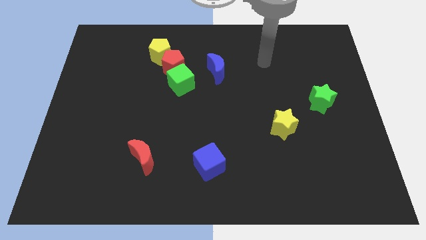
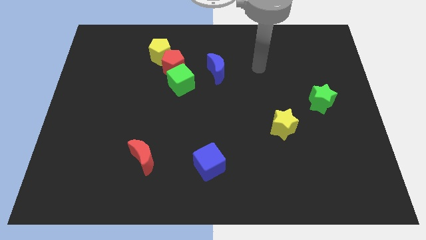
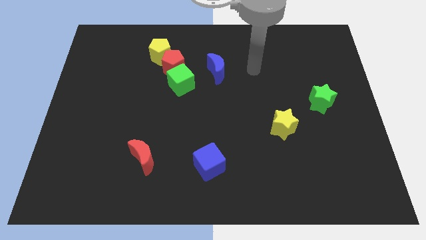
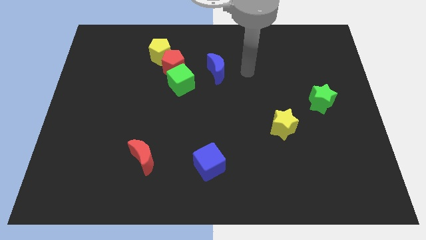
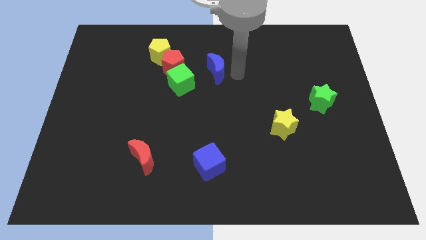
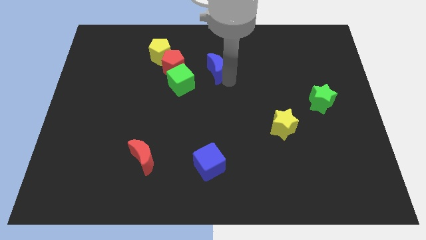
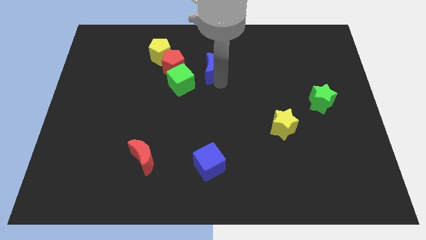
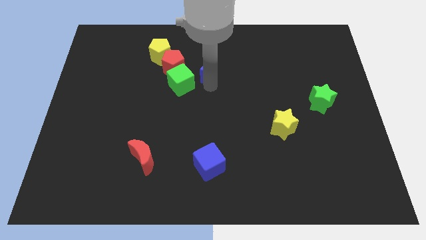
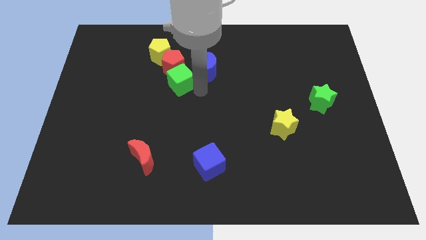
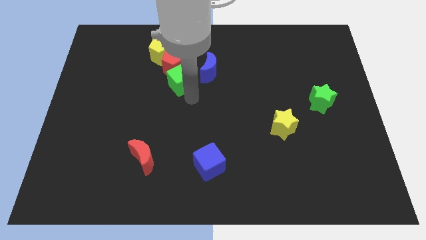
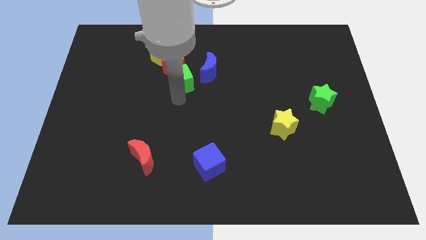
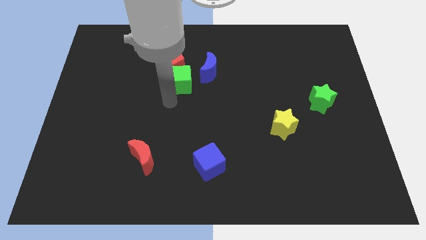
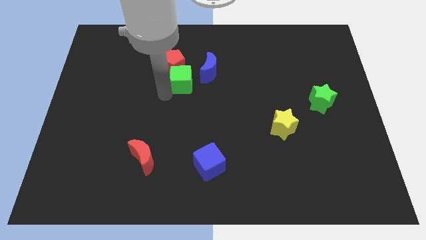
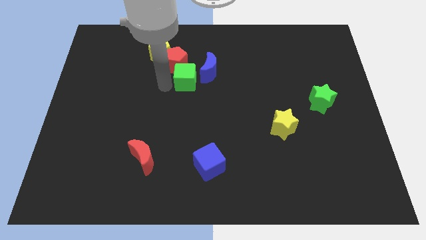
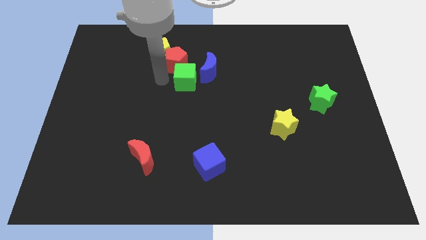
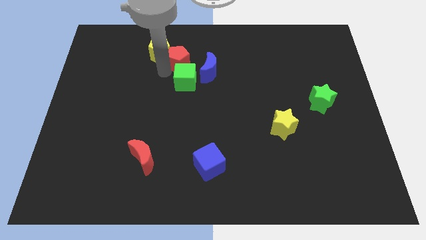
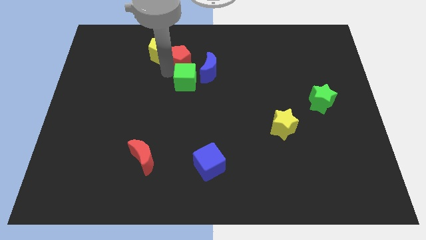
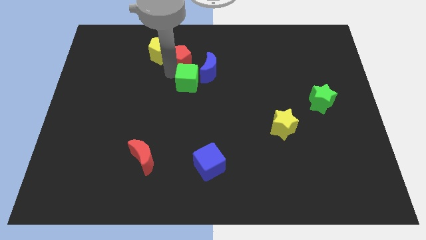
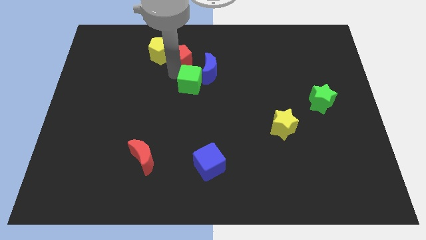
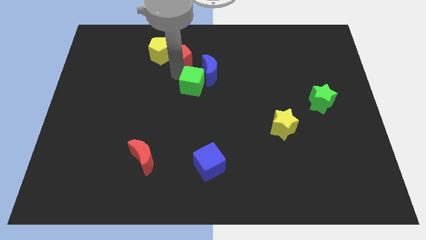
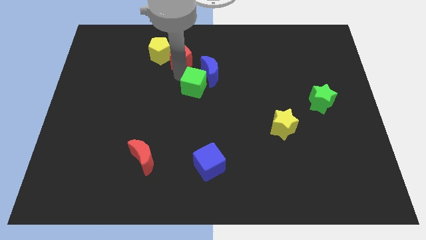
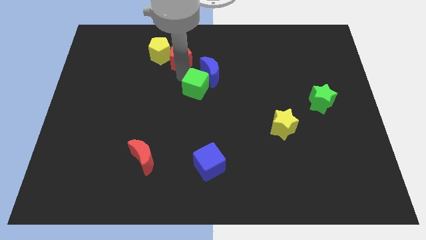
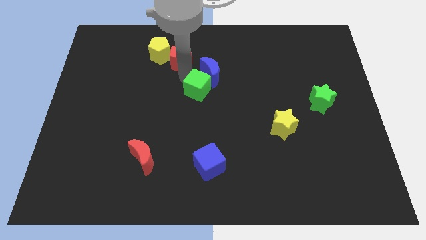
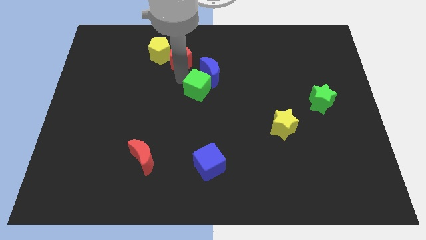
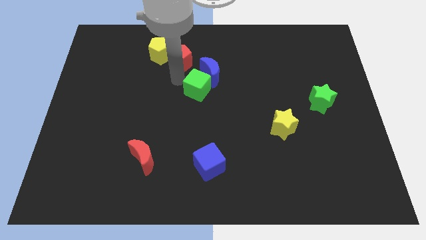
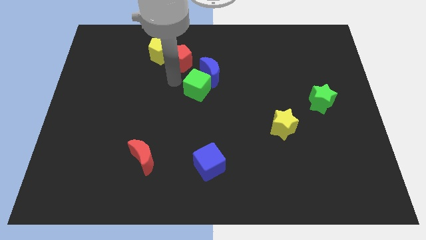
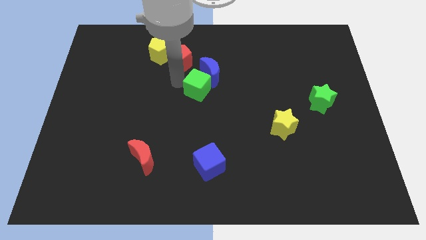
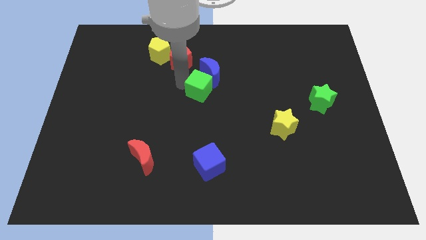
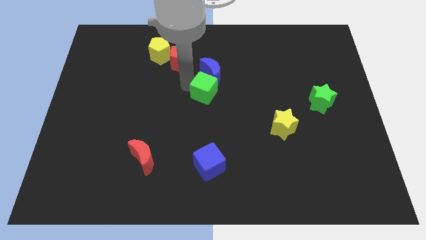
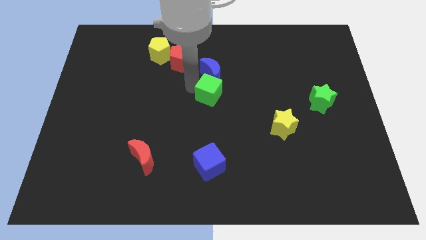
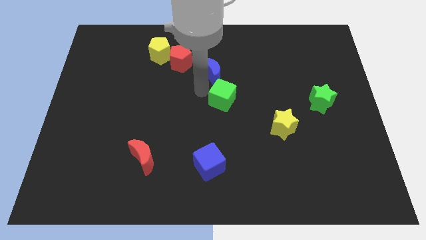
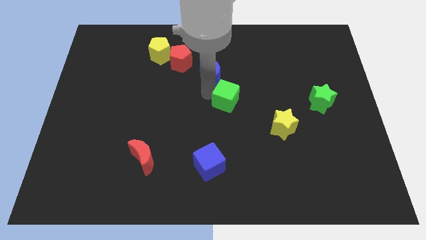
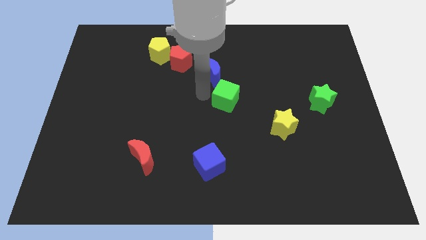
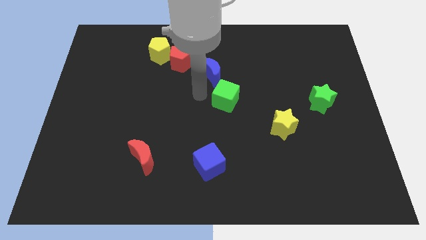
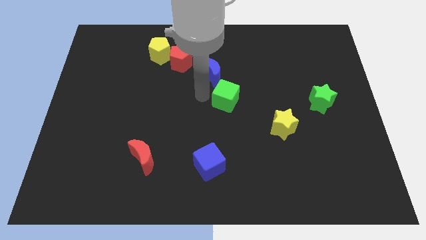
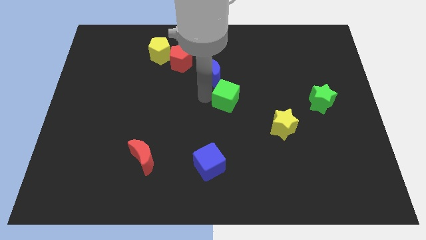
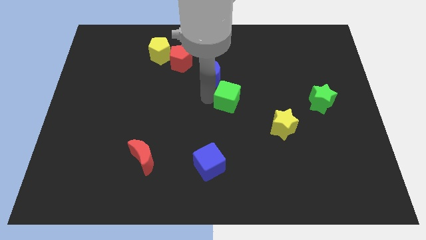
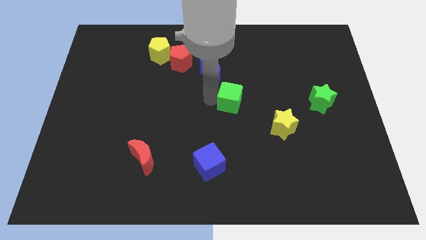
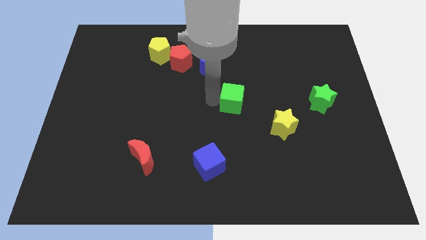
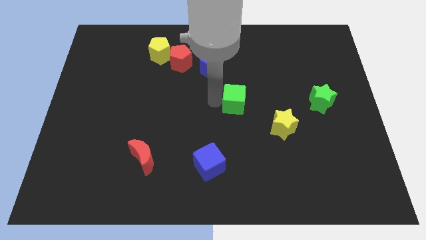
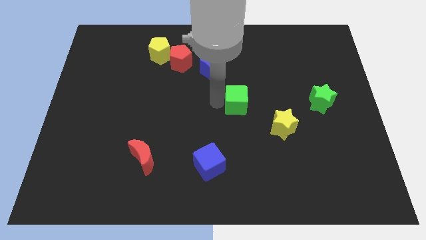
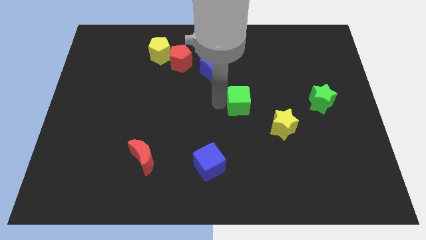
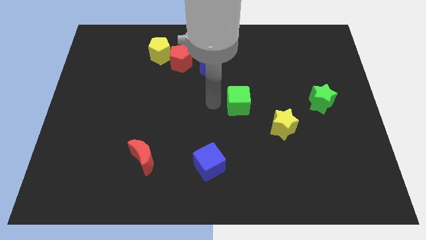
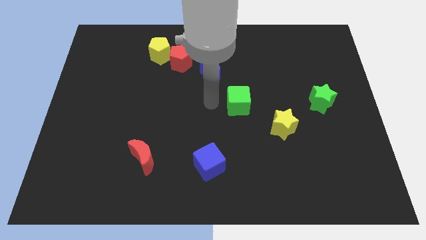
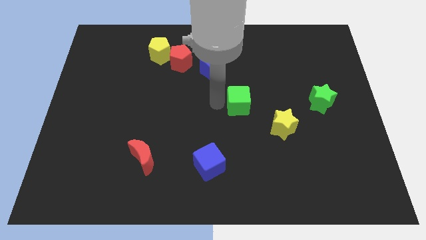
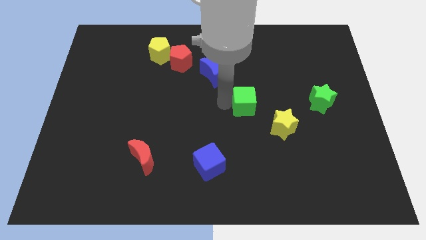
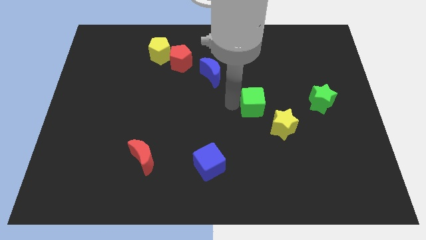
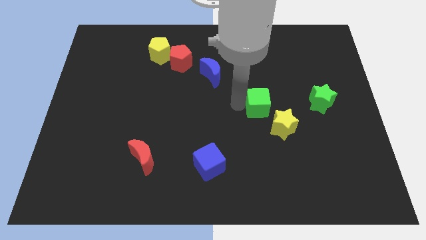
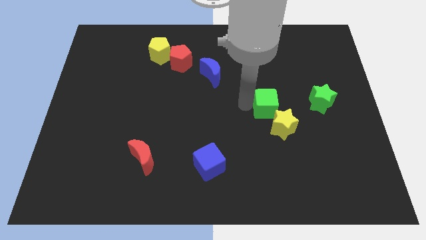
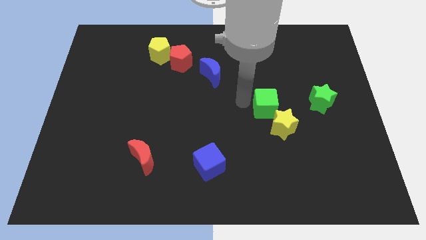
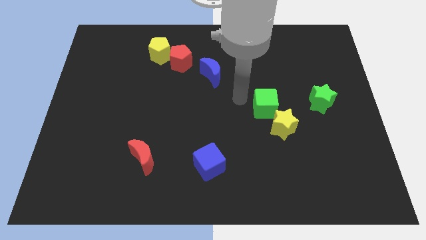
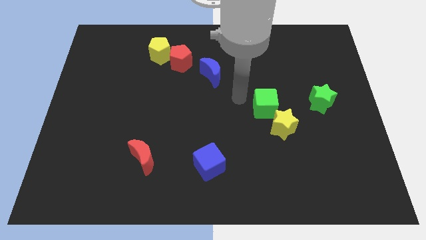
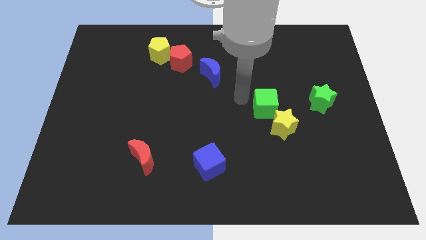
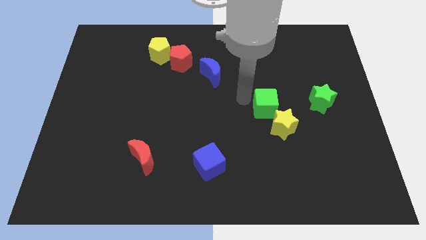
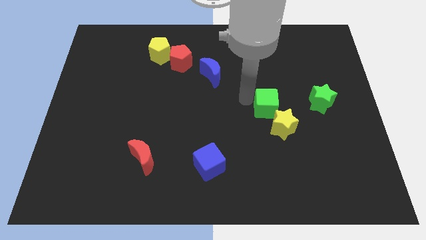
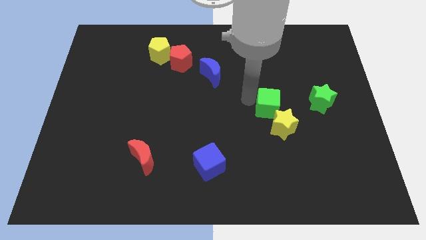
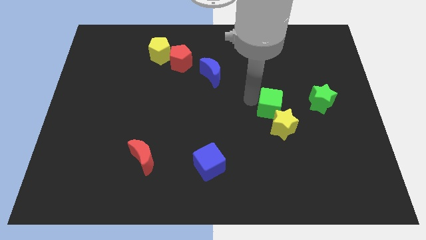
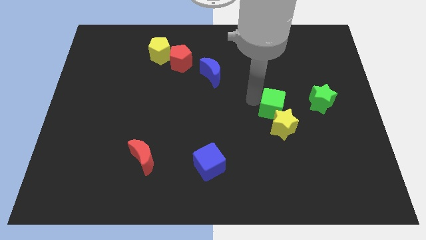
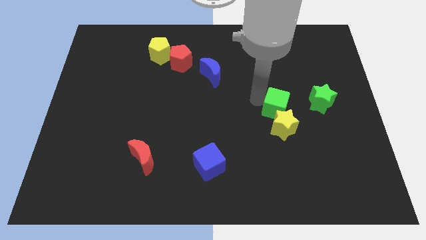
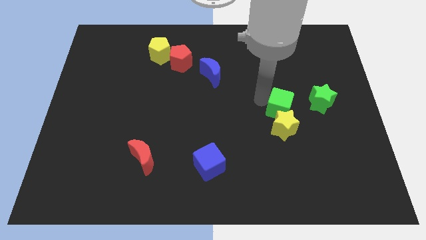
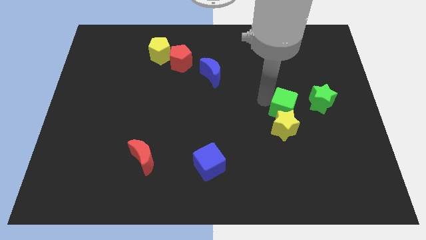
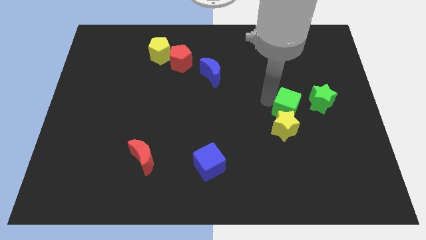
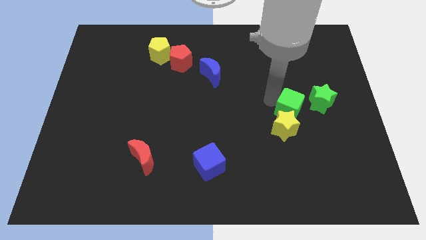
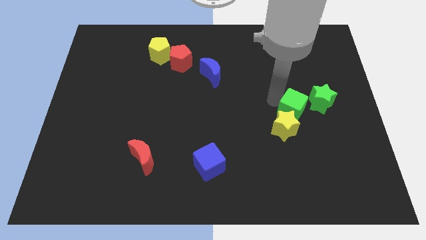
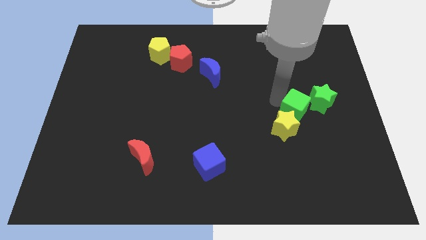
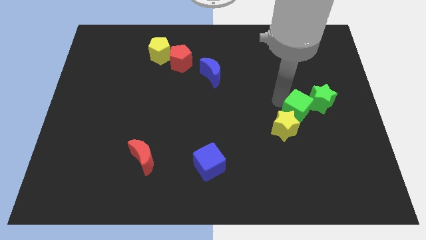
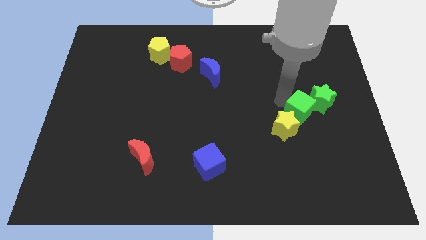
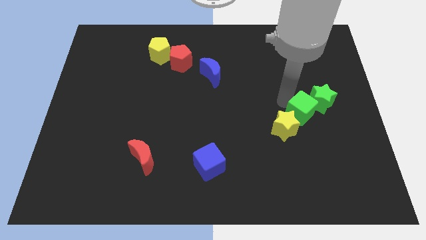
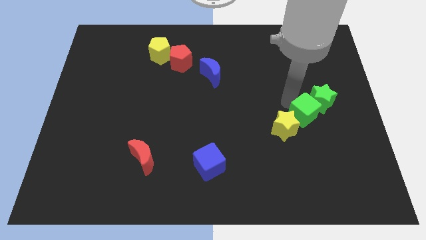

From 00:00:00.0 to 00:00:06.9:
put the green cube below the green star

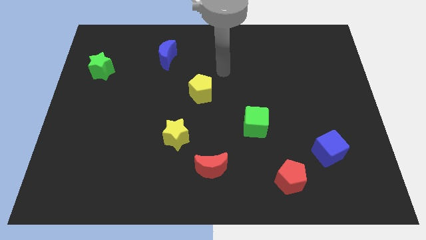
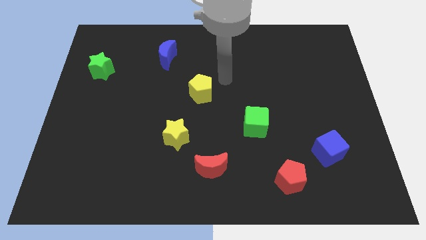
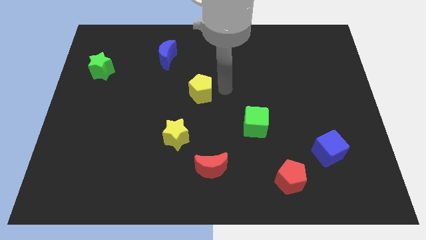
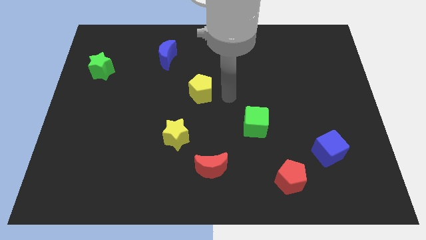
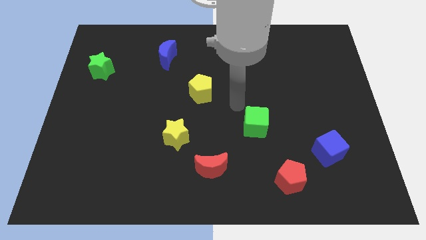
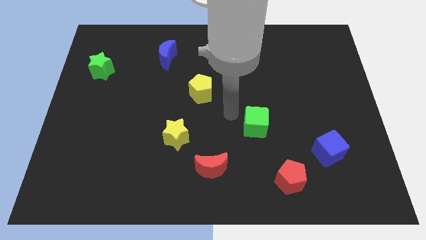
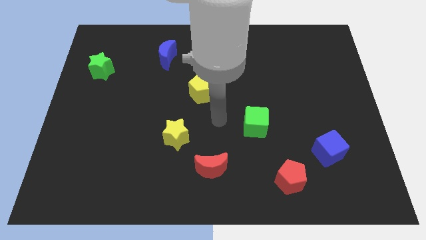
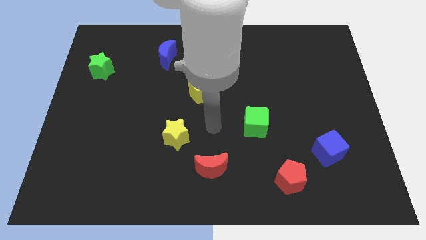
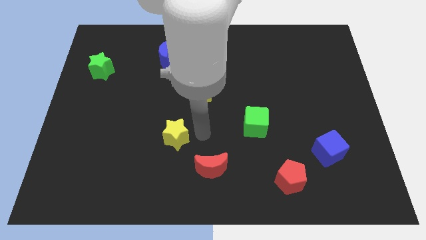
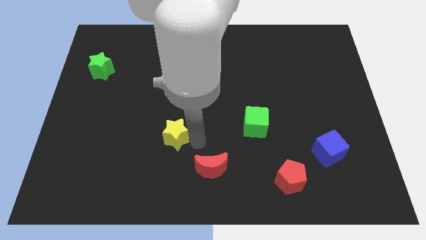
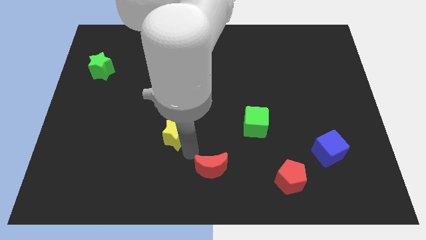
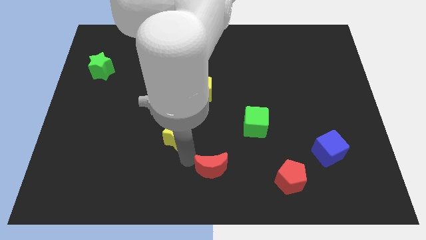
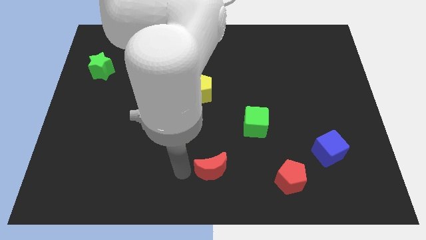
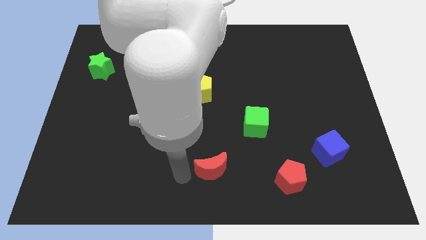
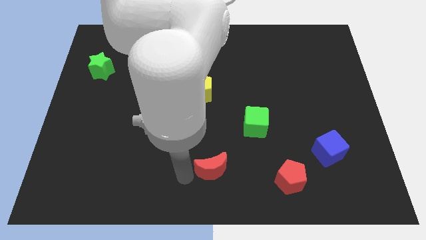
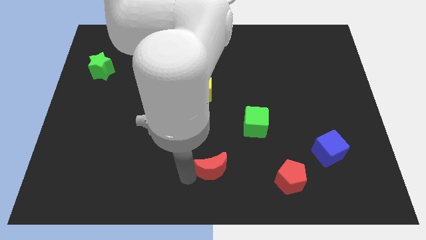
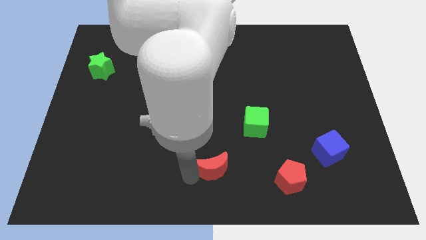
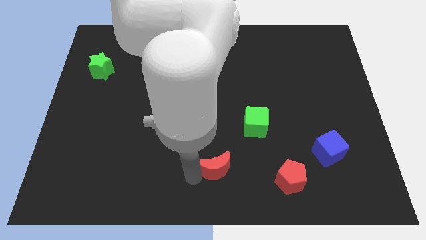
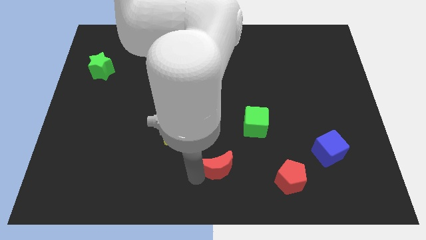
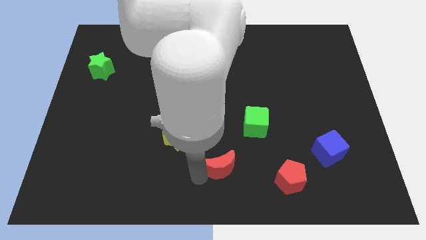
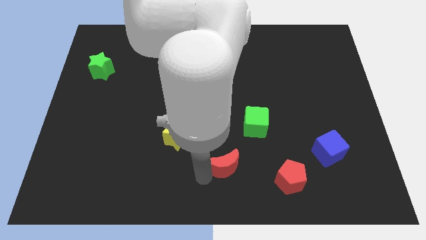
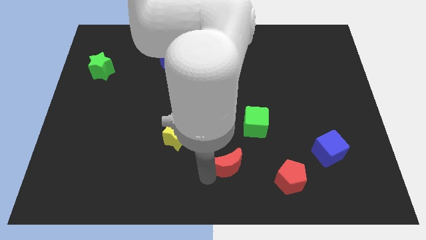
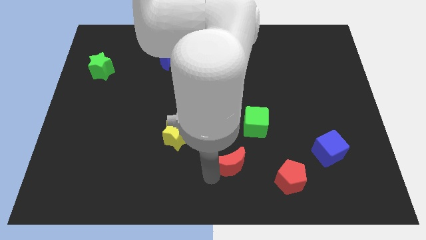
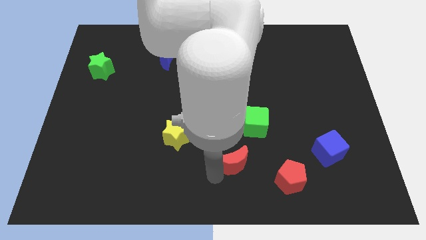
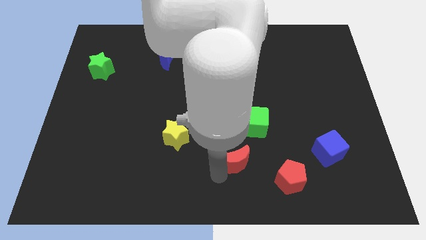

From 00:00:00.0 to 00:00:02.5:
push the red moon to the bottom side of the green cube
